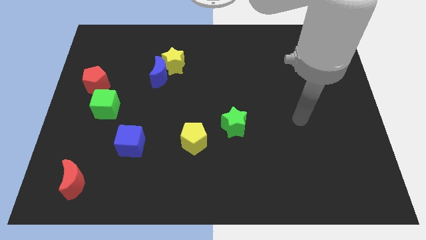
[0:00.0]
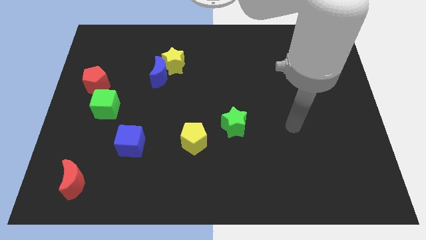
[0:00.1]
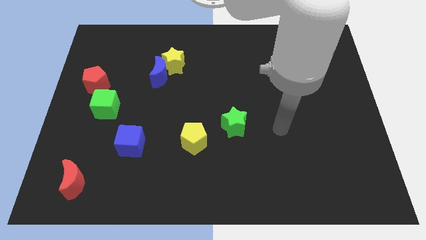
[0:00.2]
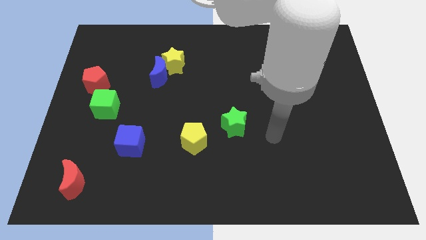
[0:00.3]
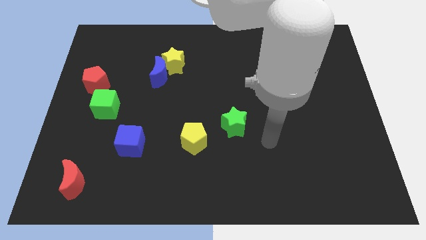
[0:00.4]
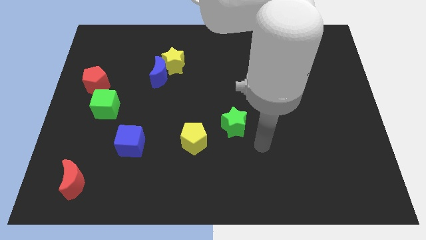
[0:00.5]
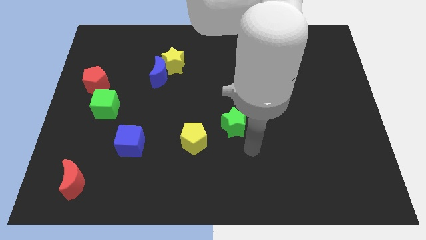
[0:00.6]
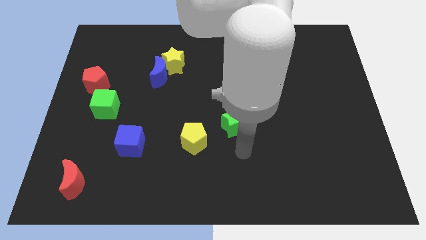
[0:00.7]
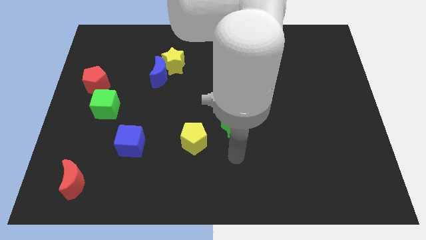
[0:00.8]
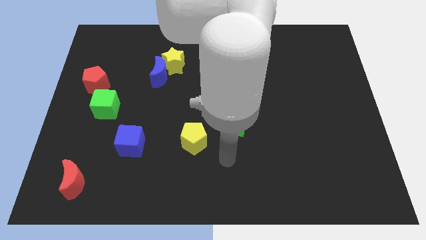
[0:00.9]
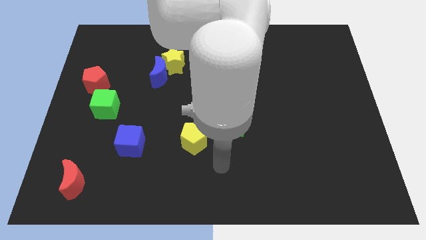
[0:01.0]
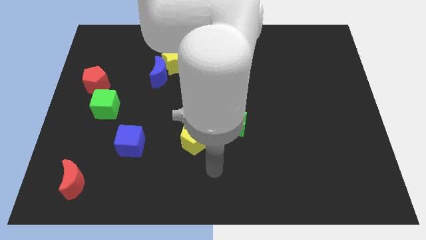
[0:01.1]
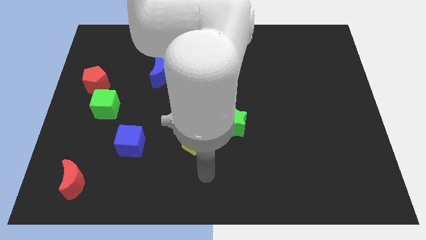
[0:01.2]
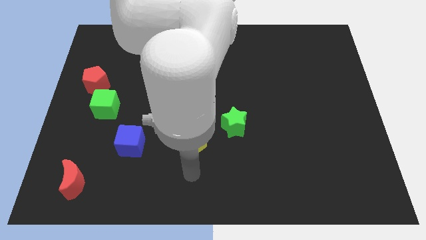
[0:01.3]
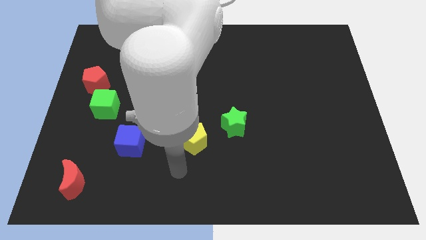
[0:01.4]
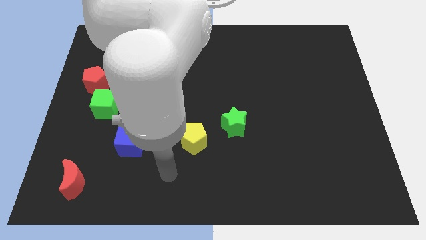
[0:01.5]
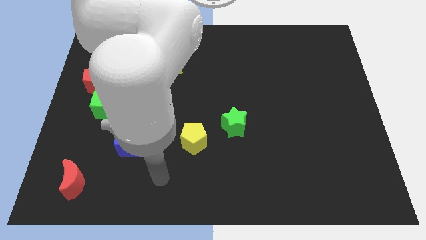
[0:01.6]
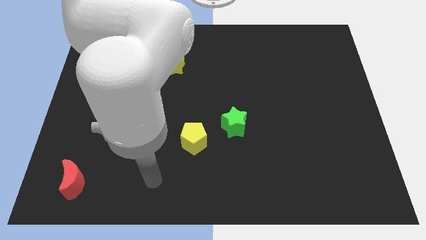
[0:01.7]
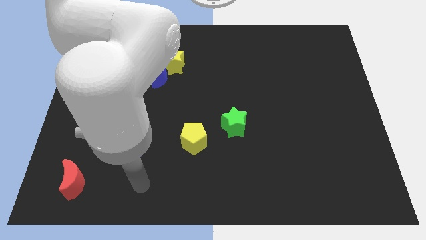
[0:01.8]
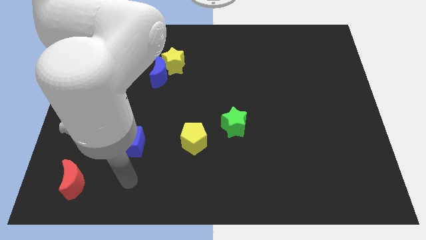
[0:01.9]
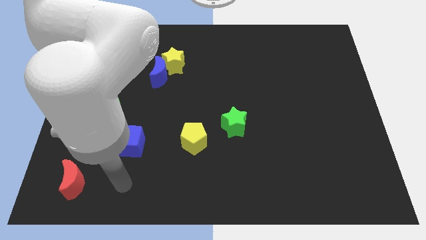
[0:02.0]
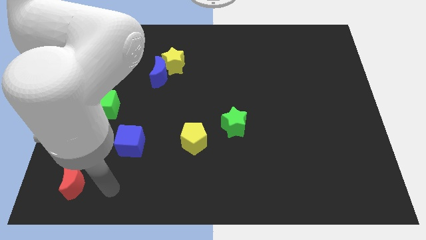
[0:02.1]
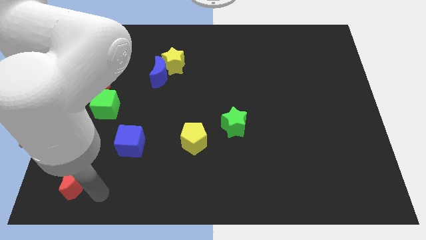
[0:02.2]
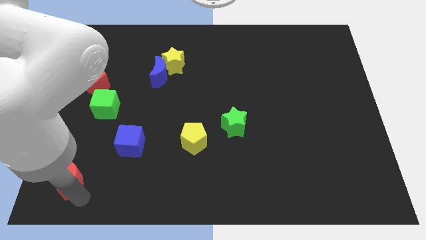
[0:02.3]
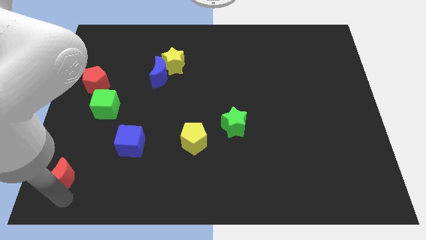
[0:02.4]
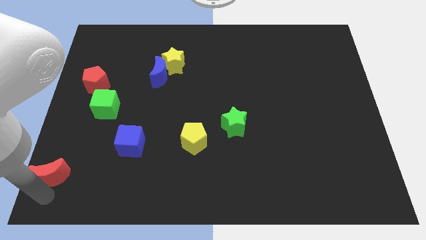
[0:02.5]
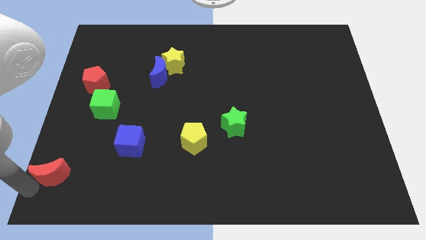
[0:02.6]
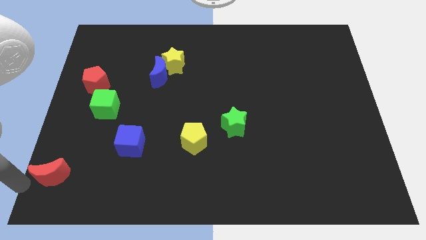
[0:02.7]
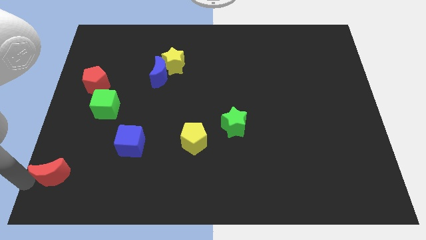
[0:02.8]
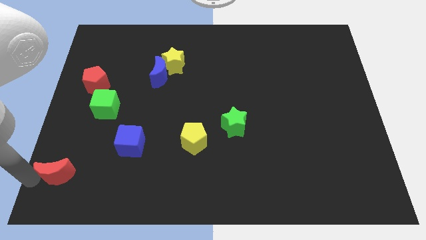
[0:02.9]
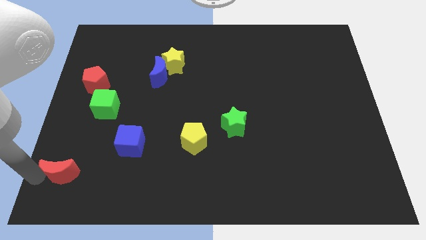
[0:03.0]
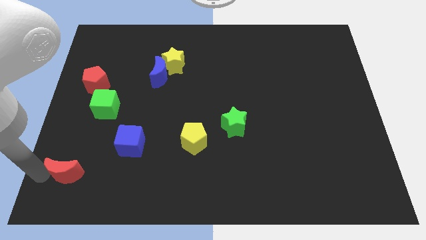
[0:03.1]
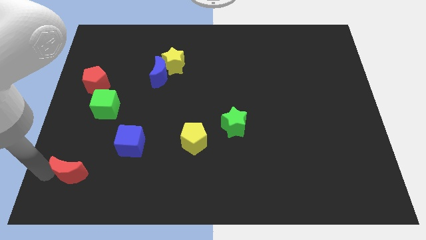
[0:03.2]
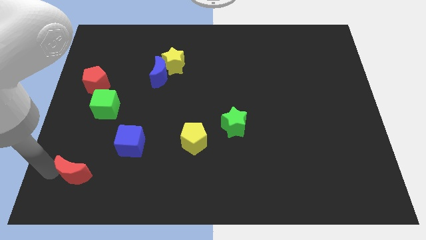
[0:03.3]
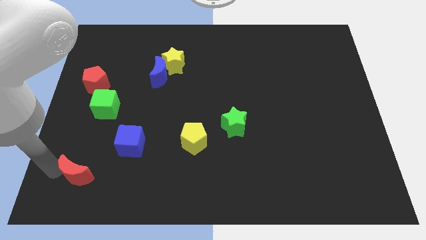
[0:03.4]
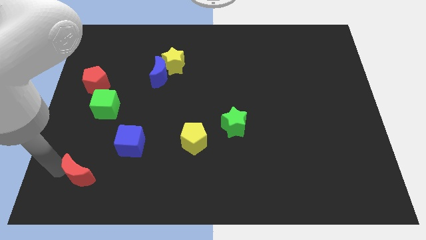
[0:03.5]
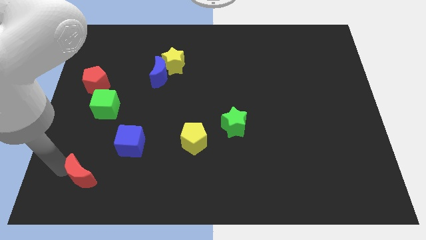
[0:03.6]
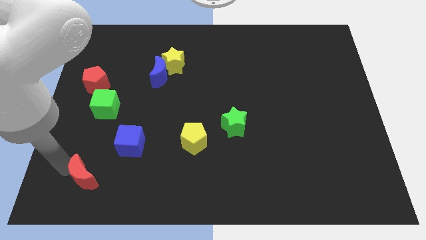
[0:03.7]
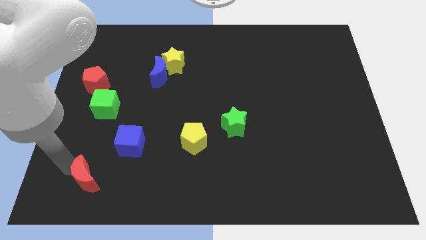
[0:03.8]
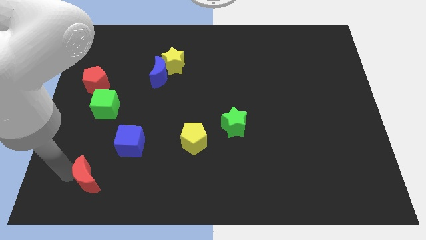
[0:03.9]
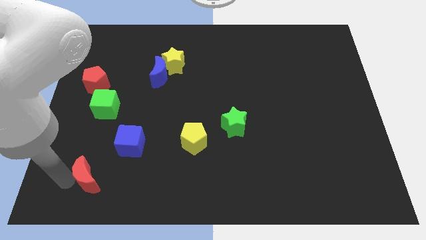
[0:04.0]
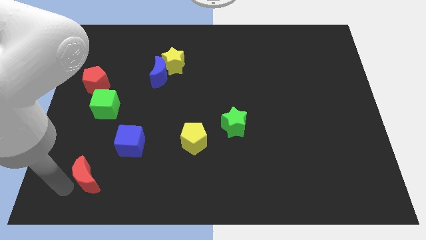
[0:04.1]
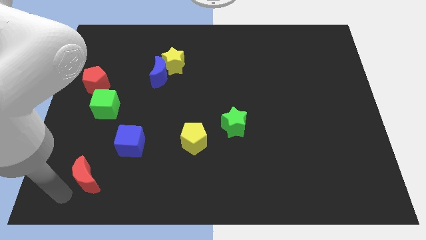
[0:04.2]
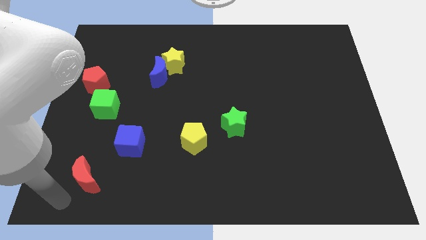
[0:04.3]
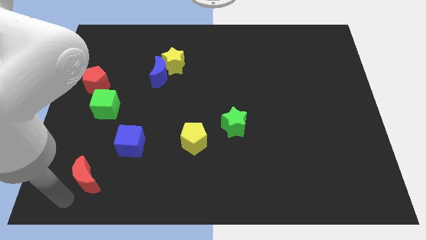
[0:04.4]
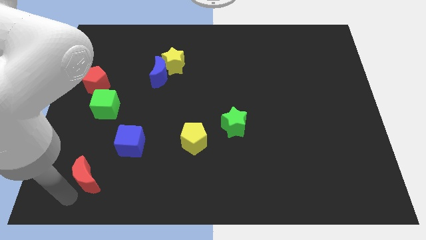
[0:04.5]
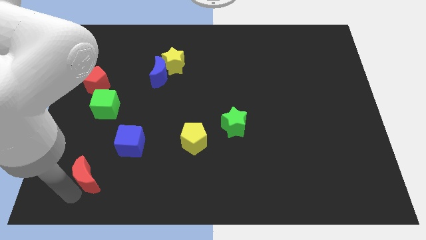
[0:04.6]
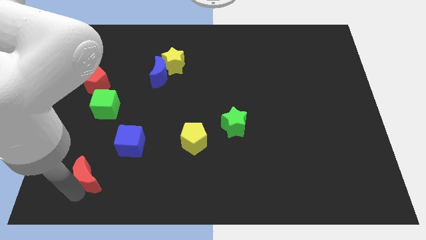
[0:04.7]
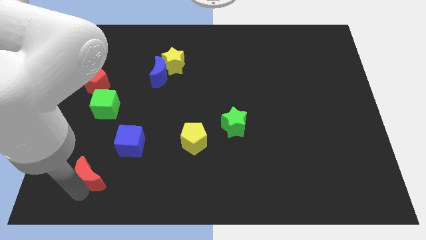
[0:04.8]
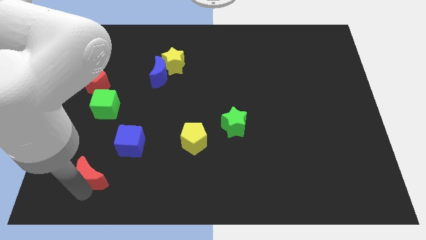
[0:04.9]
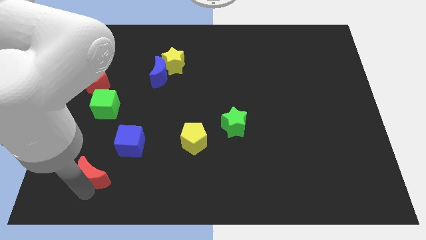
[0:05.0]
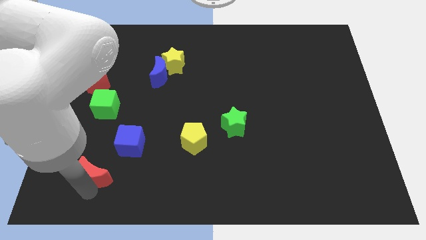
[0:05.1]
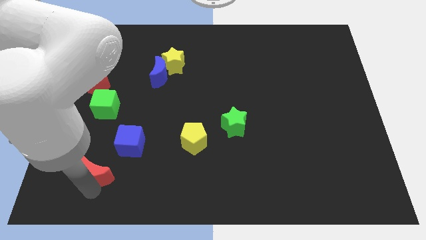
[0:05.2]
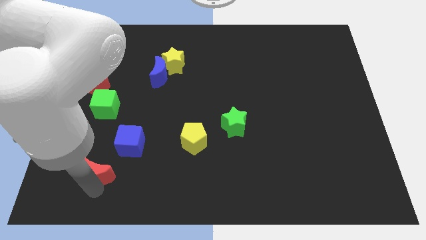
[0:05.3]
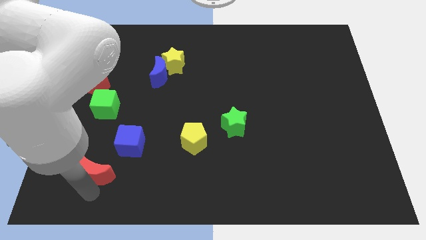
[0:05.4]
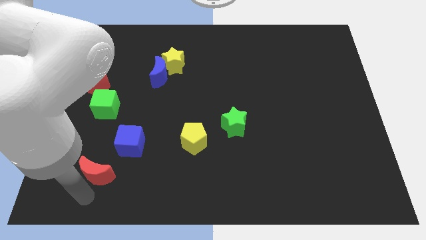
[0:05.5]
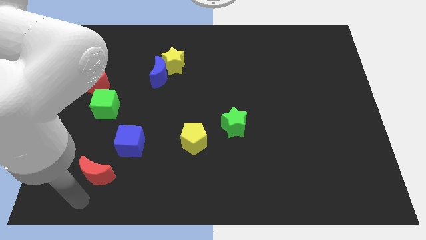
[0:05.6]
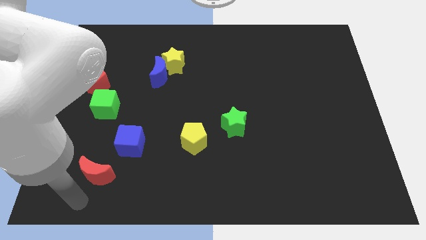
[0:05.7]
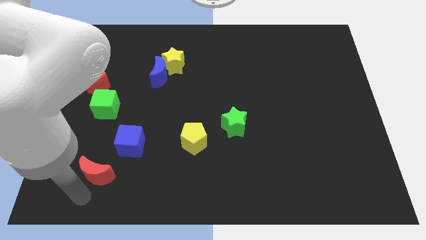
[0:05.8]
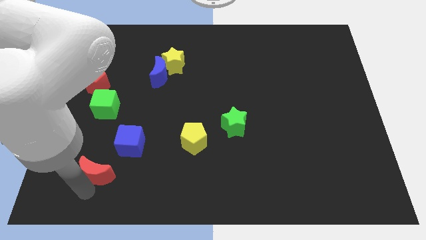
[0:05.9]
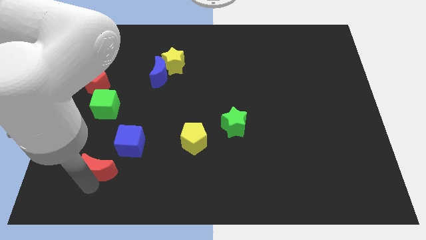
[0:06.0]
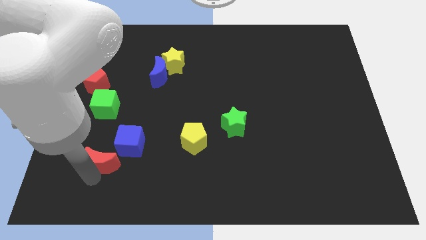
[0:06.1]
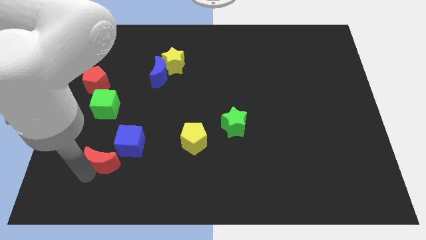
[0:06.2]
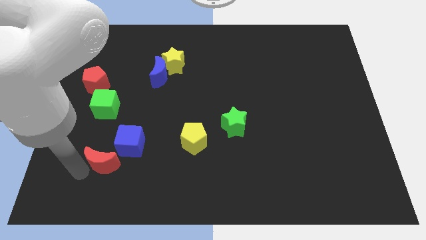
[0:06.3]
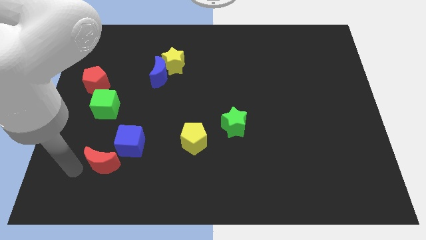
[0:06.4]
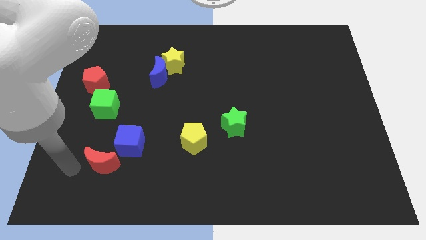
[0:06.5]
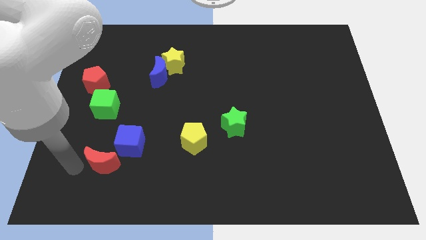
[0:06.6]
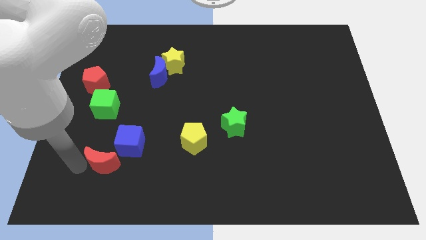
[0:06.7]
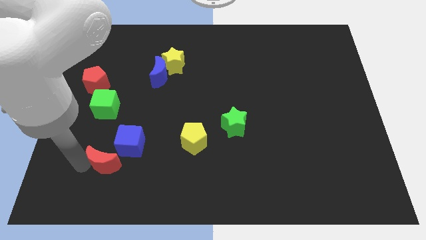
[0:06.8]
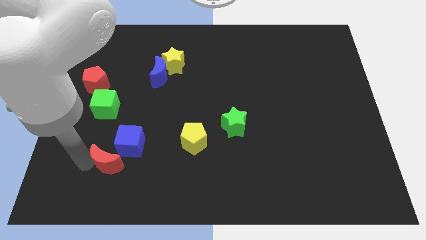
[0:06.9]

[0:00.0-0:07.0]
slide the red moon a bit upwards and to the right

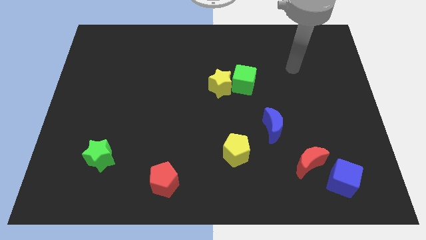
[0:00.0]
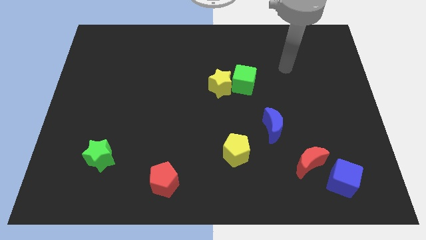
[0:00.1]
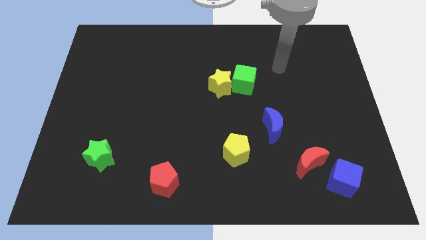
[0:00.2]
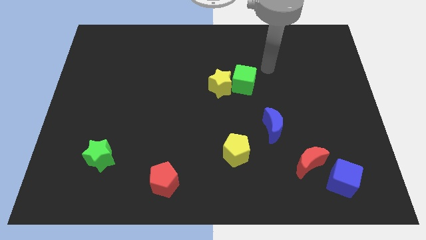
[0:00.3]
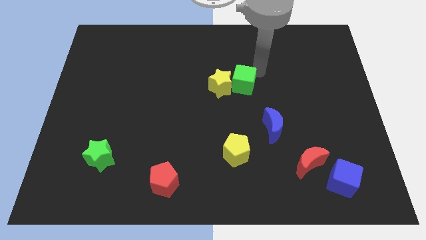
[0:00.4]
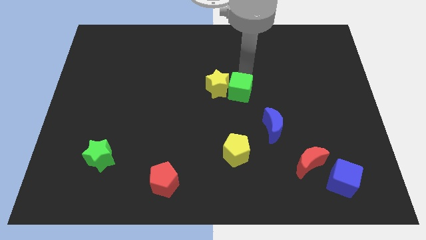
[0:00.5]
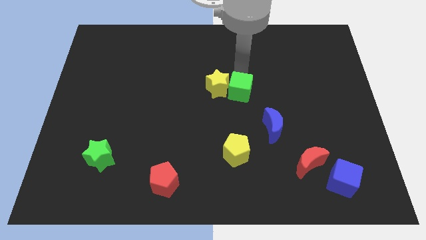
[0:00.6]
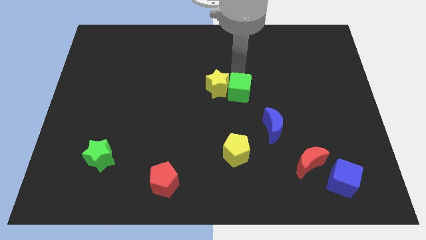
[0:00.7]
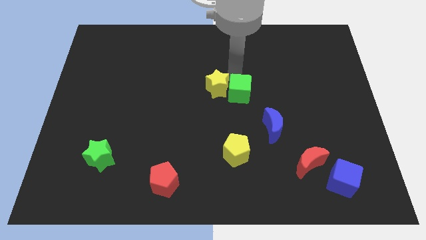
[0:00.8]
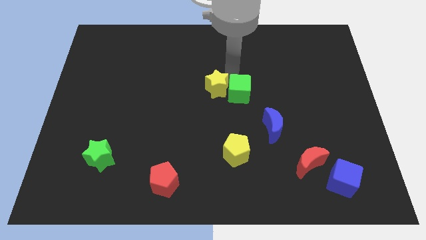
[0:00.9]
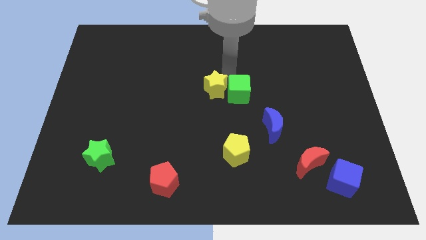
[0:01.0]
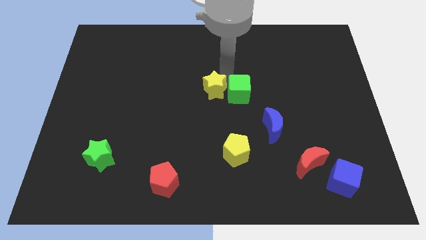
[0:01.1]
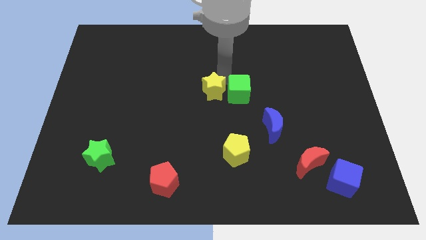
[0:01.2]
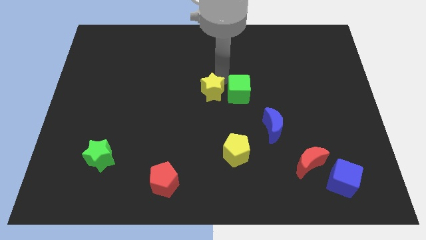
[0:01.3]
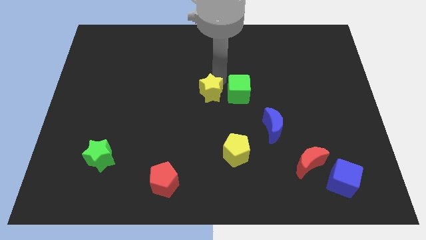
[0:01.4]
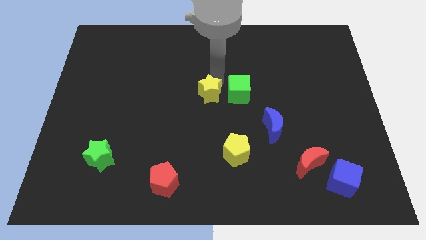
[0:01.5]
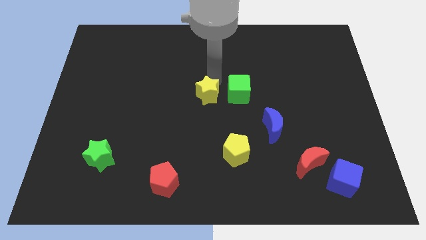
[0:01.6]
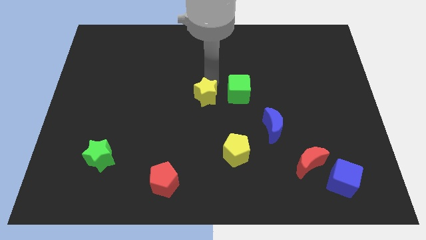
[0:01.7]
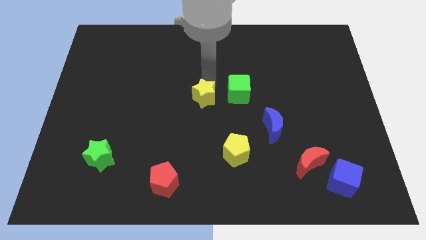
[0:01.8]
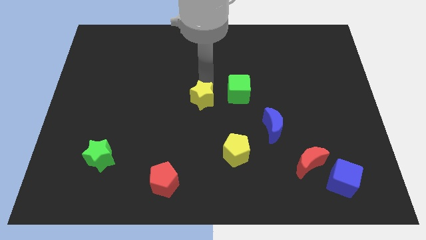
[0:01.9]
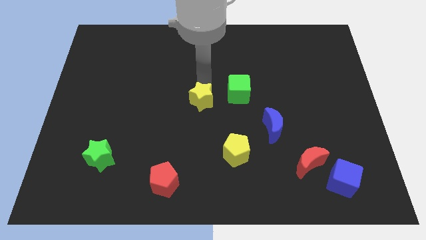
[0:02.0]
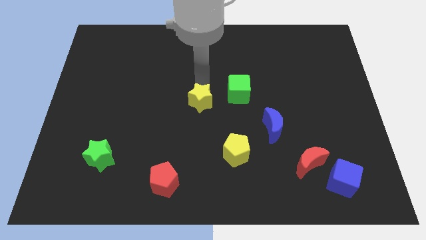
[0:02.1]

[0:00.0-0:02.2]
push the yellow star slightly diagonally down and to the left
